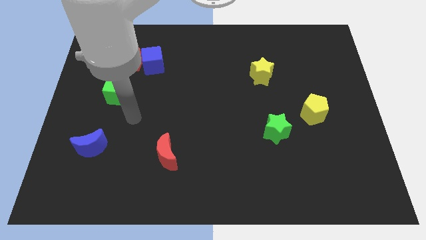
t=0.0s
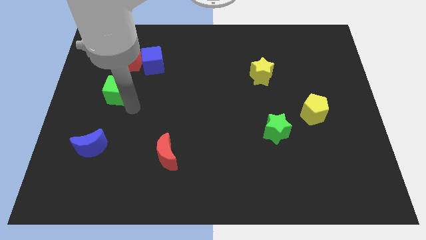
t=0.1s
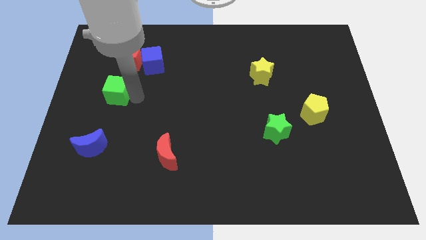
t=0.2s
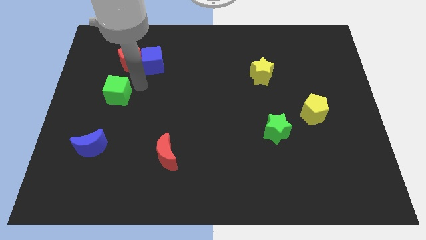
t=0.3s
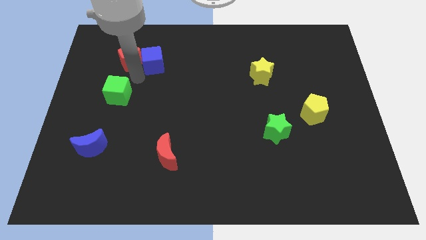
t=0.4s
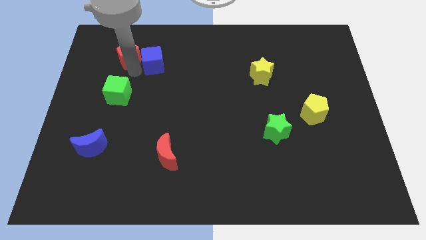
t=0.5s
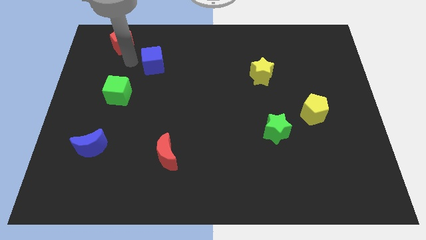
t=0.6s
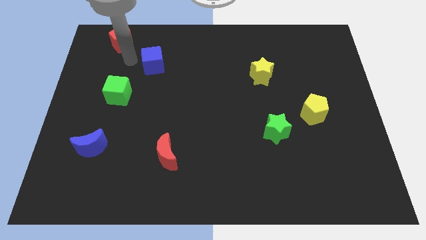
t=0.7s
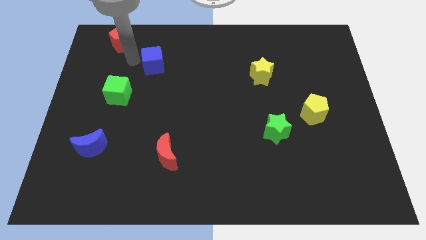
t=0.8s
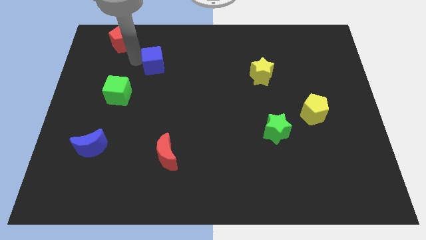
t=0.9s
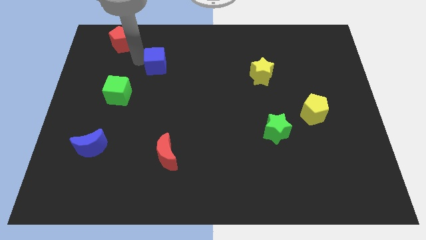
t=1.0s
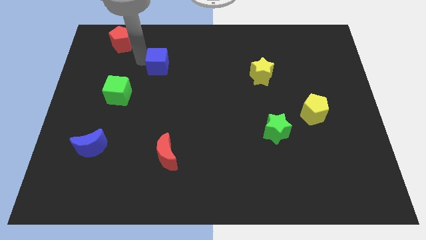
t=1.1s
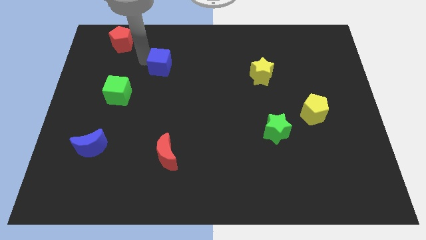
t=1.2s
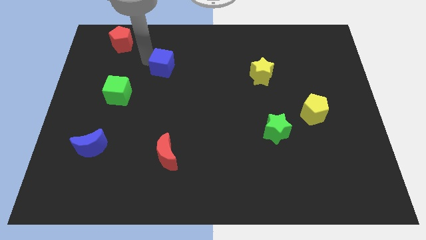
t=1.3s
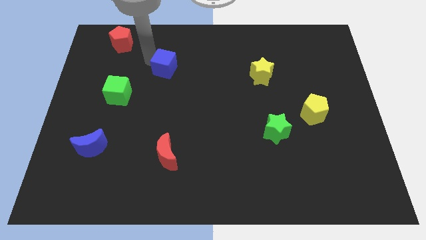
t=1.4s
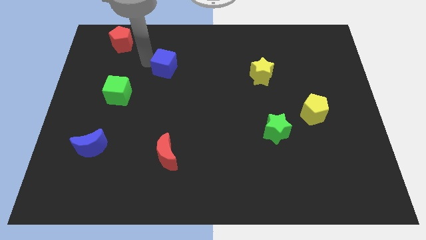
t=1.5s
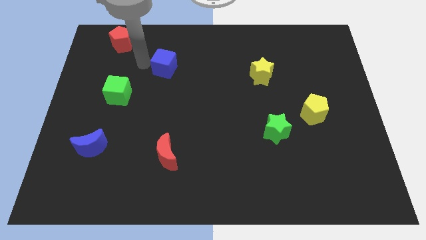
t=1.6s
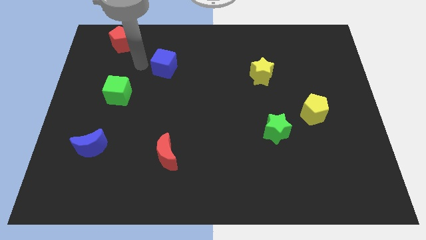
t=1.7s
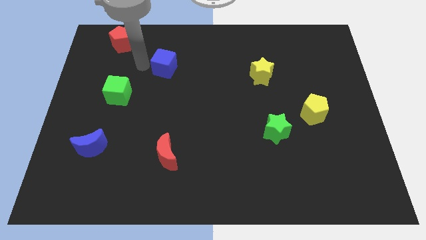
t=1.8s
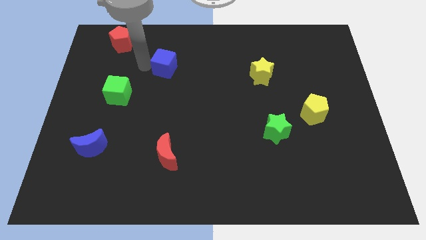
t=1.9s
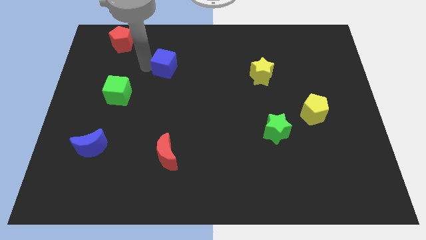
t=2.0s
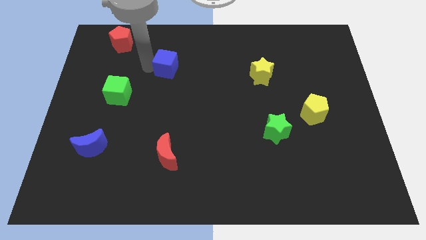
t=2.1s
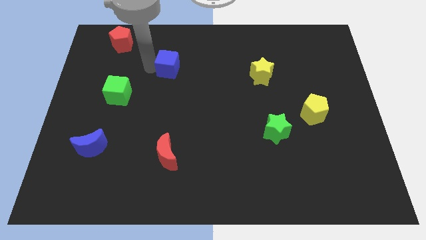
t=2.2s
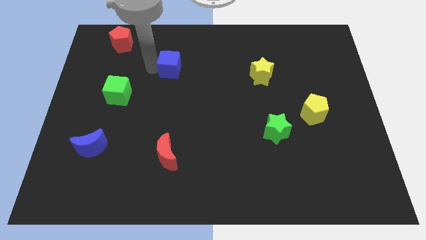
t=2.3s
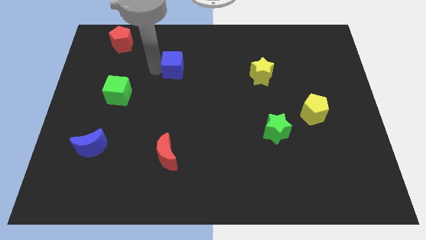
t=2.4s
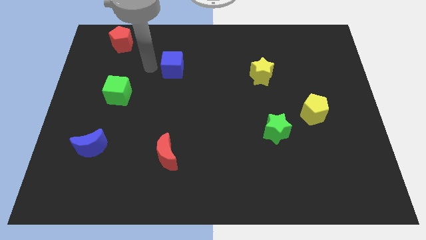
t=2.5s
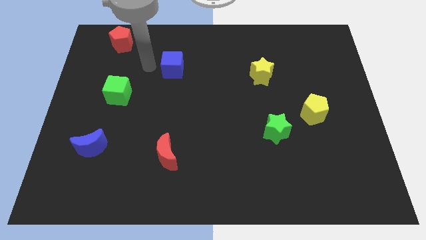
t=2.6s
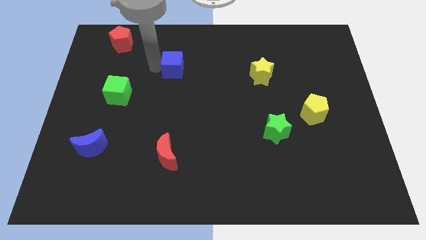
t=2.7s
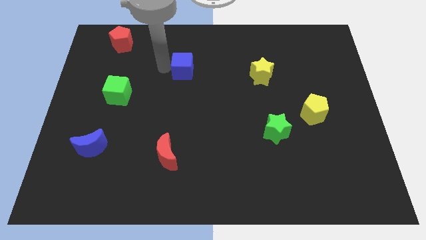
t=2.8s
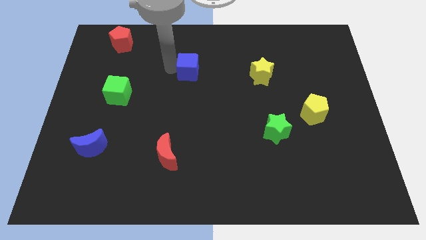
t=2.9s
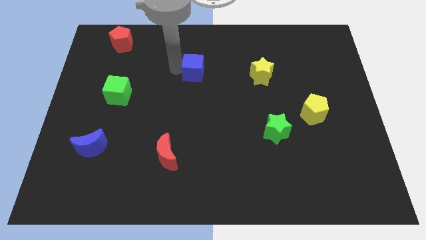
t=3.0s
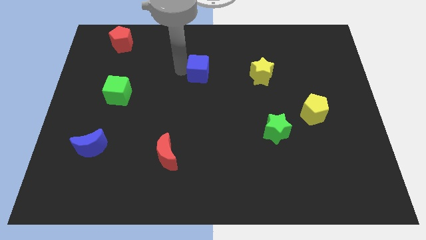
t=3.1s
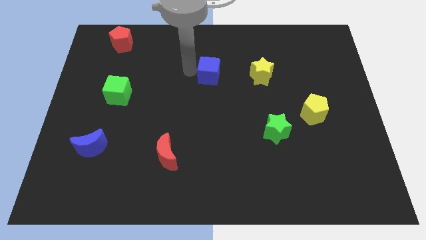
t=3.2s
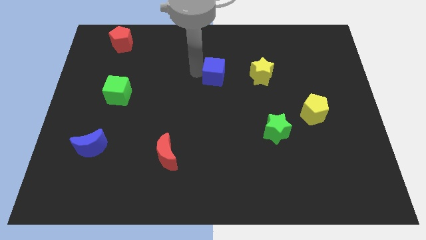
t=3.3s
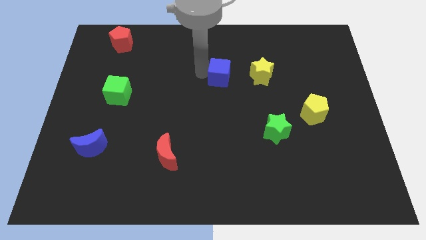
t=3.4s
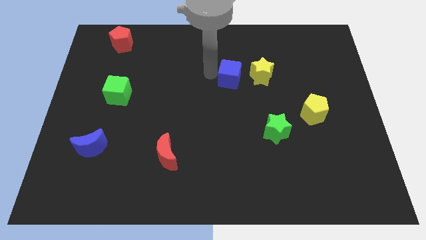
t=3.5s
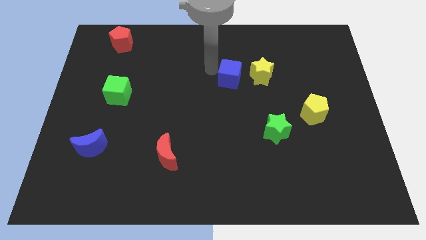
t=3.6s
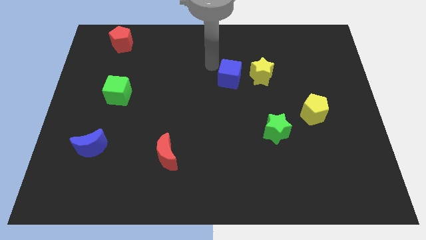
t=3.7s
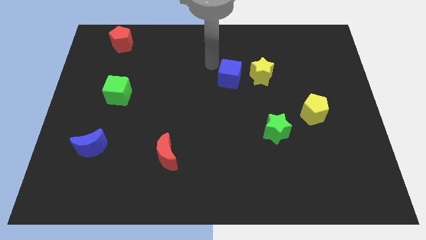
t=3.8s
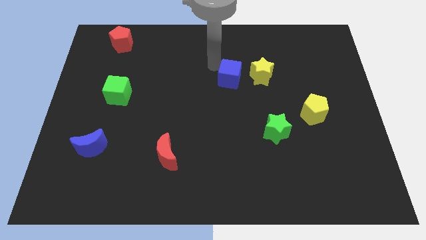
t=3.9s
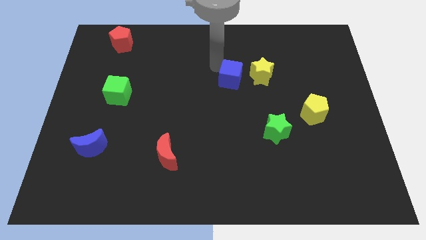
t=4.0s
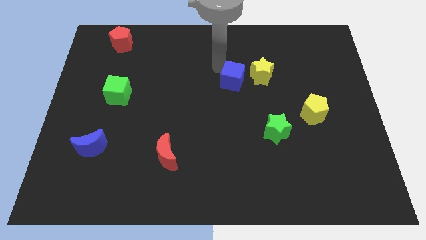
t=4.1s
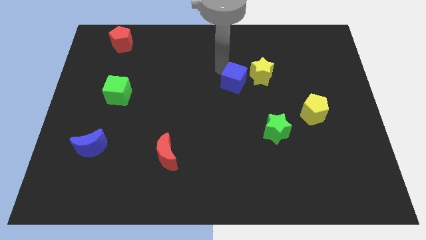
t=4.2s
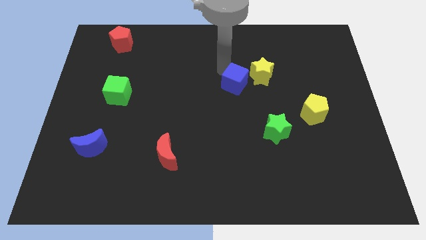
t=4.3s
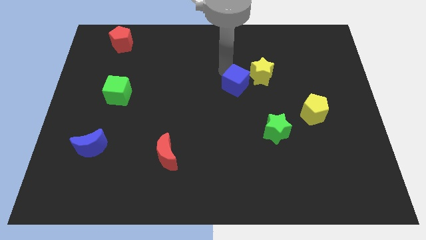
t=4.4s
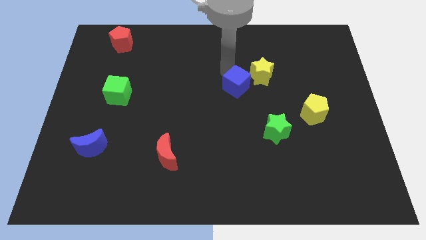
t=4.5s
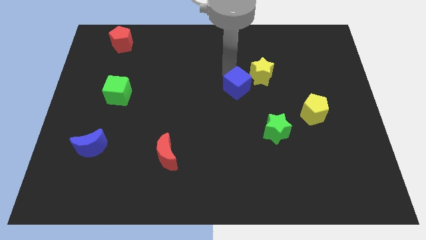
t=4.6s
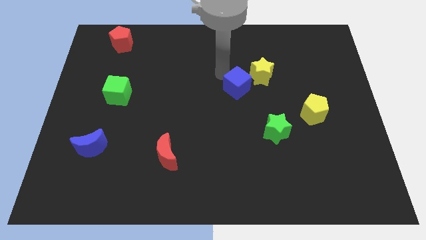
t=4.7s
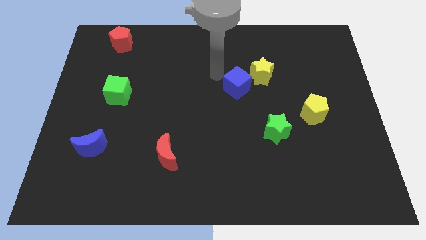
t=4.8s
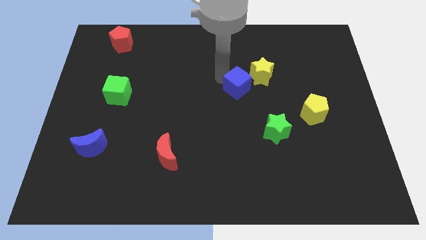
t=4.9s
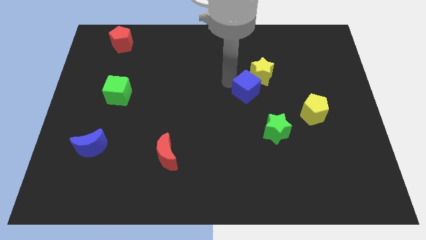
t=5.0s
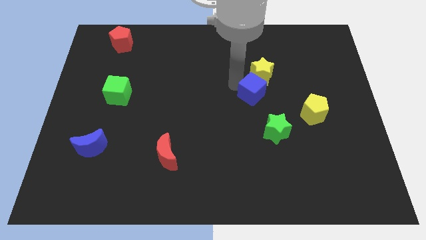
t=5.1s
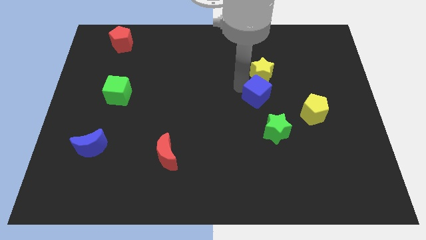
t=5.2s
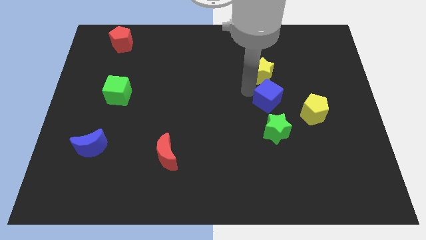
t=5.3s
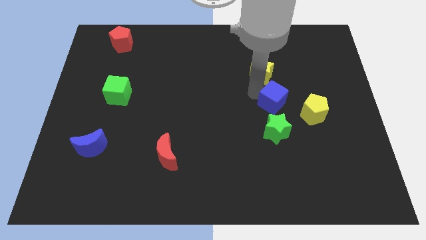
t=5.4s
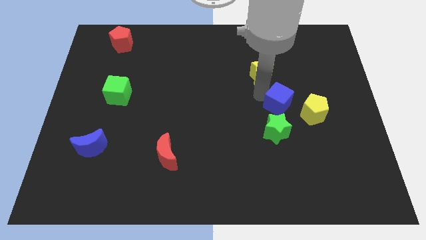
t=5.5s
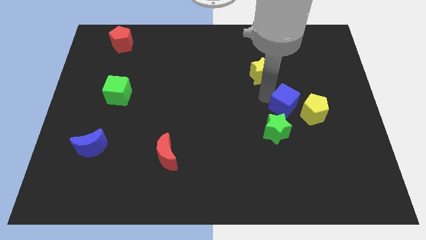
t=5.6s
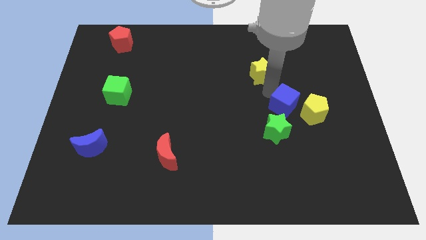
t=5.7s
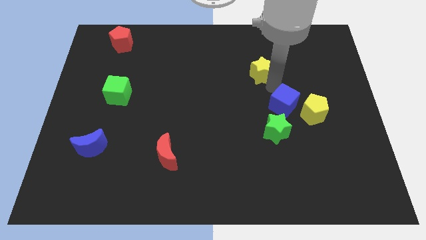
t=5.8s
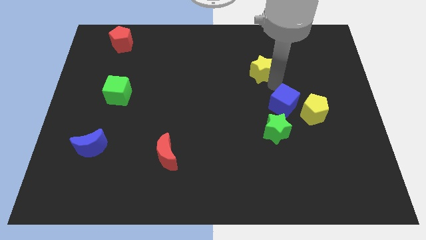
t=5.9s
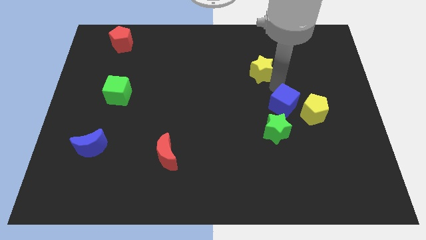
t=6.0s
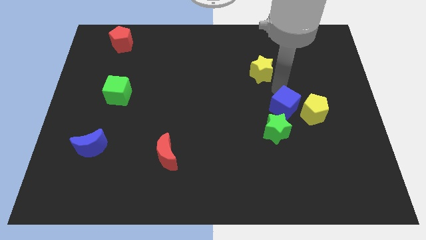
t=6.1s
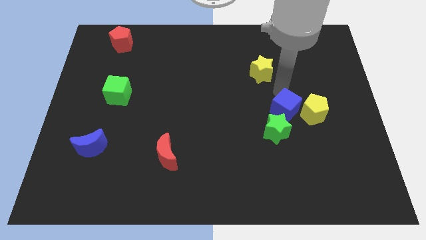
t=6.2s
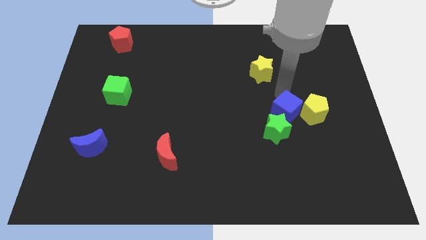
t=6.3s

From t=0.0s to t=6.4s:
move the blue cube to the bottom left of the yellow pentagon

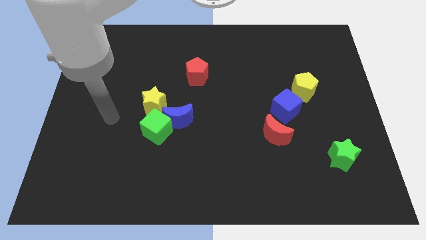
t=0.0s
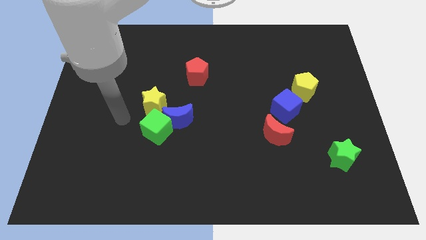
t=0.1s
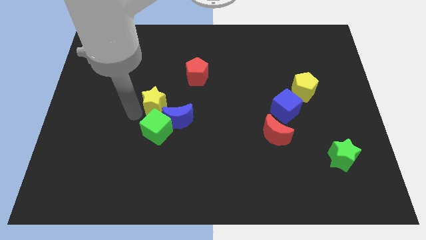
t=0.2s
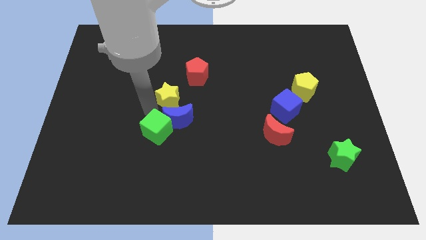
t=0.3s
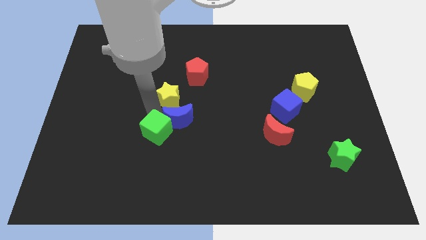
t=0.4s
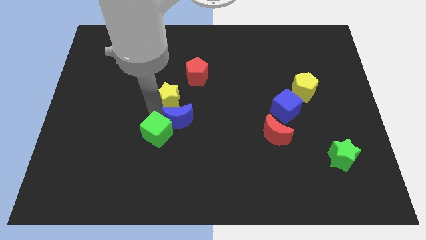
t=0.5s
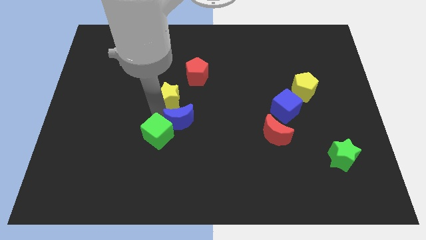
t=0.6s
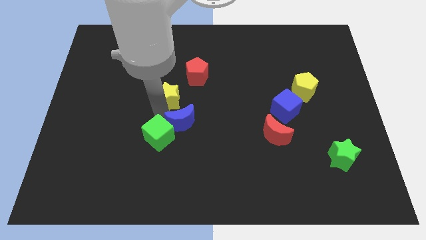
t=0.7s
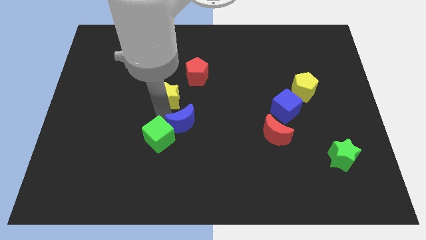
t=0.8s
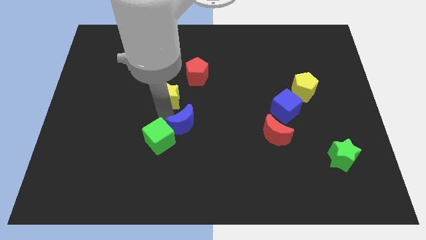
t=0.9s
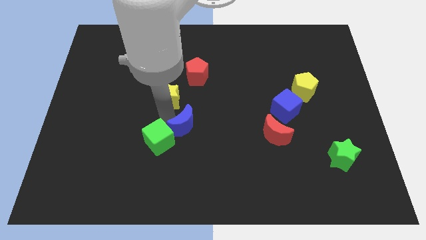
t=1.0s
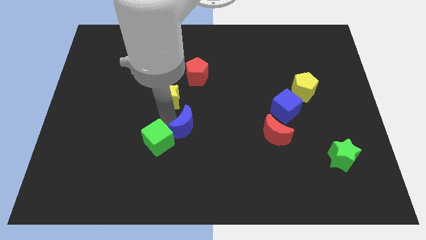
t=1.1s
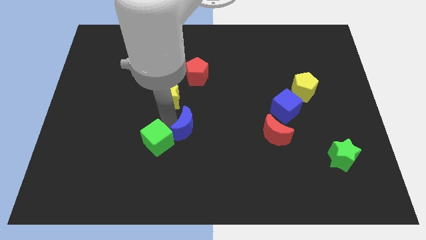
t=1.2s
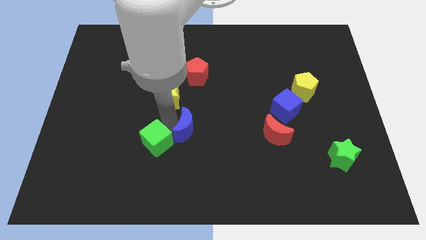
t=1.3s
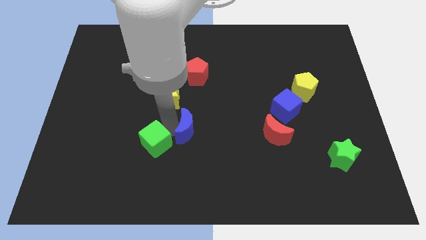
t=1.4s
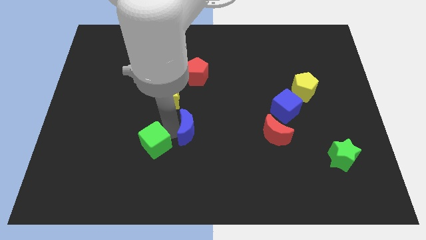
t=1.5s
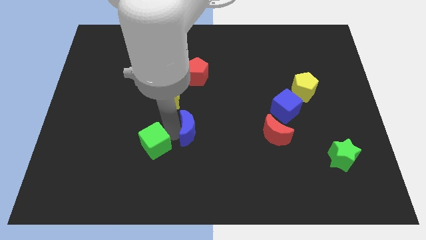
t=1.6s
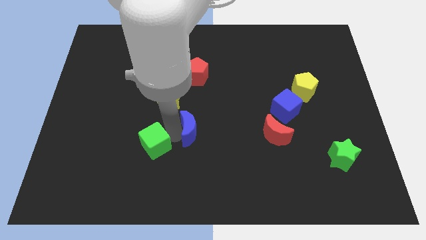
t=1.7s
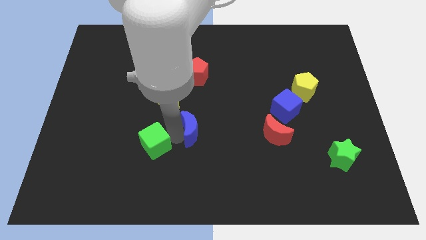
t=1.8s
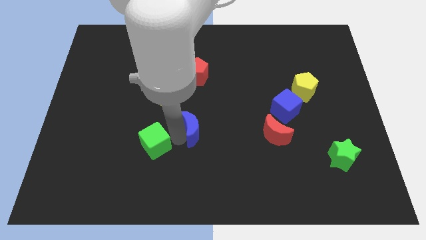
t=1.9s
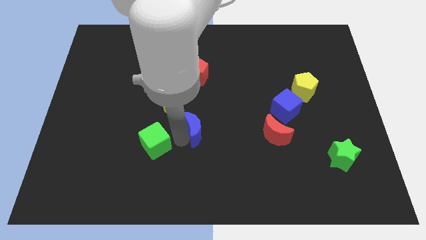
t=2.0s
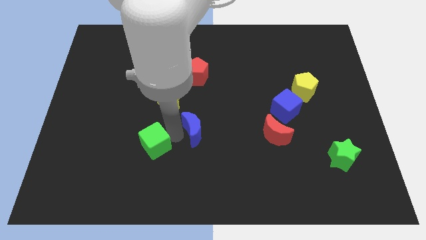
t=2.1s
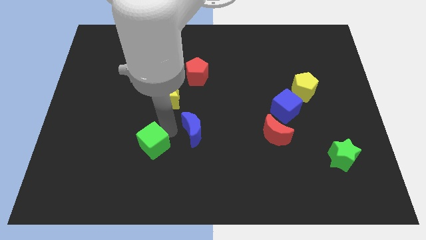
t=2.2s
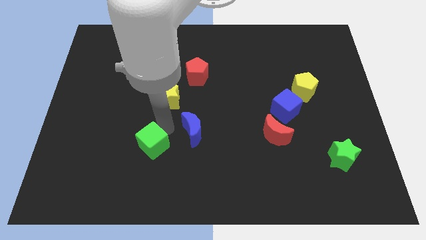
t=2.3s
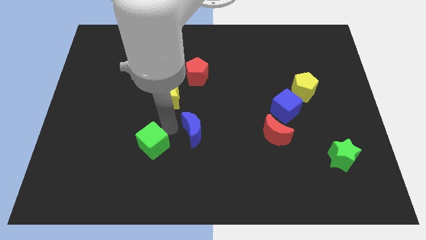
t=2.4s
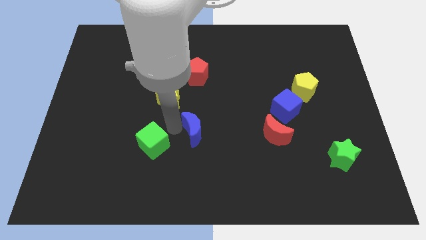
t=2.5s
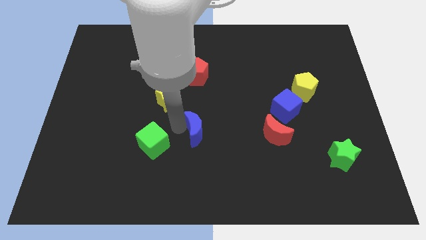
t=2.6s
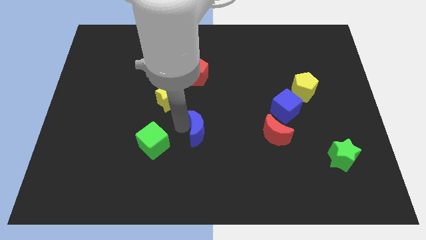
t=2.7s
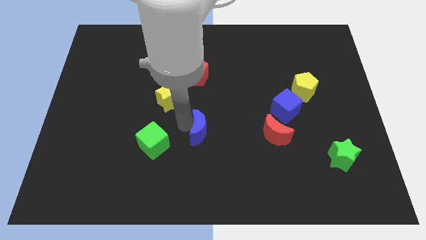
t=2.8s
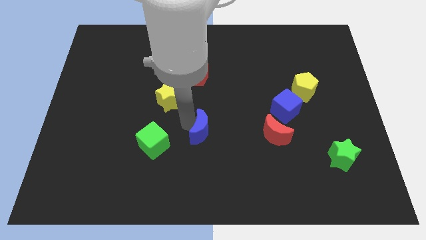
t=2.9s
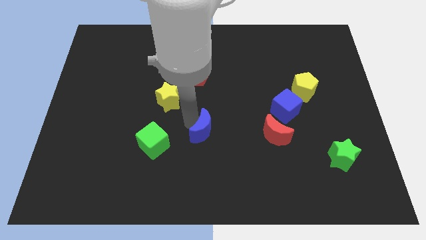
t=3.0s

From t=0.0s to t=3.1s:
push the blue moon just left of the red moon
